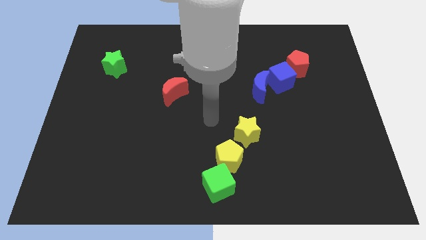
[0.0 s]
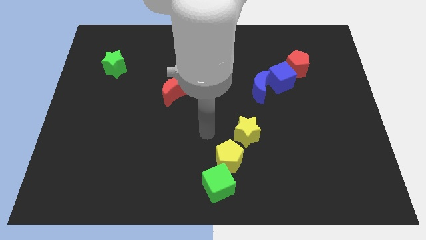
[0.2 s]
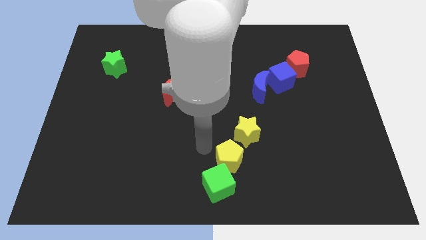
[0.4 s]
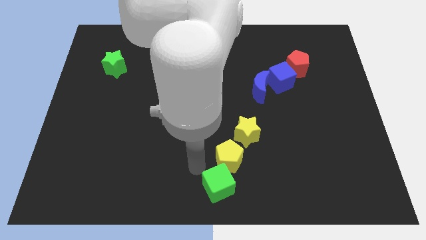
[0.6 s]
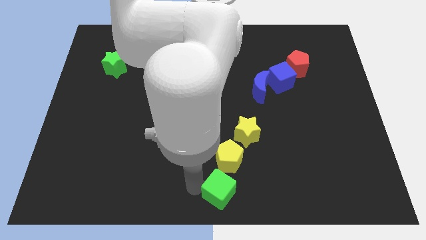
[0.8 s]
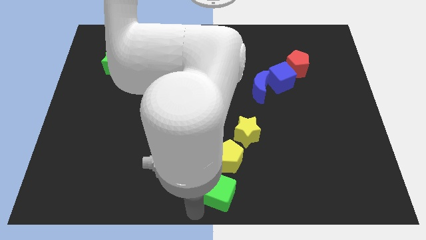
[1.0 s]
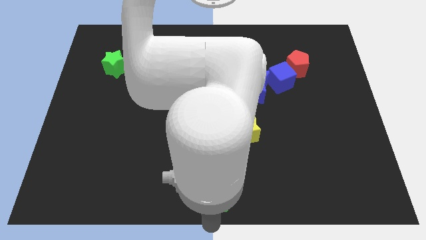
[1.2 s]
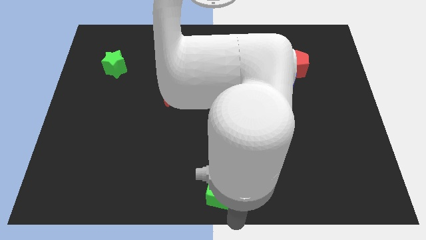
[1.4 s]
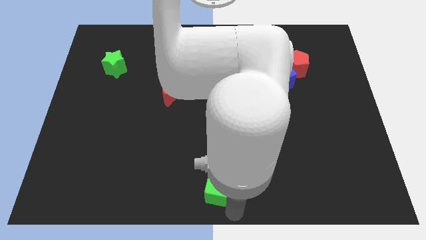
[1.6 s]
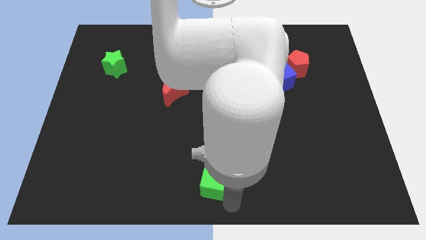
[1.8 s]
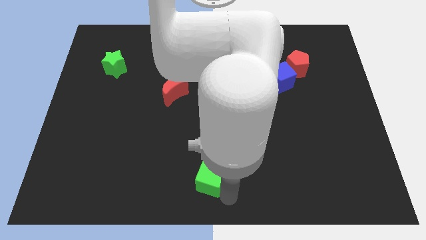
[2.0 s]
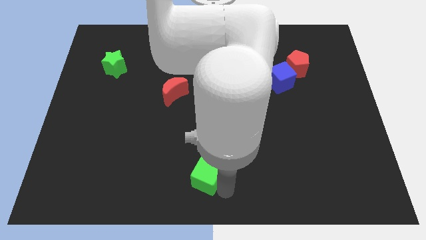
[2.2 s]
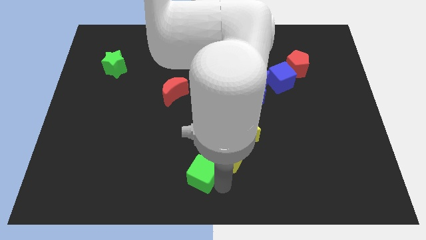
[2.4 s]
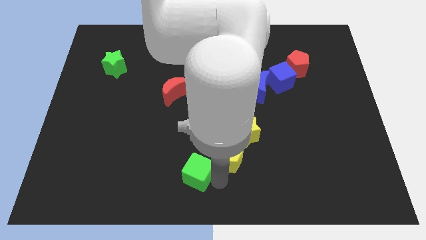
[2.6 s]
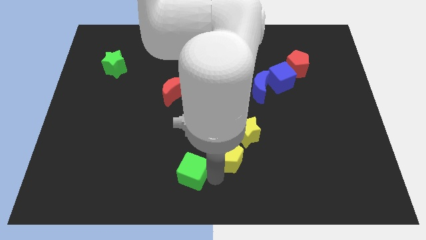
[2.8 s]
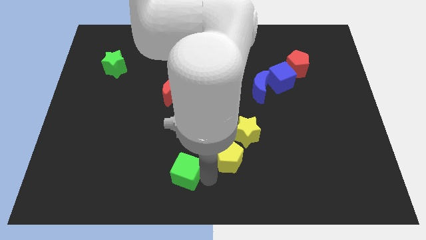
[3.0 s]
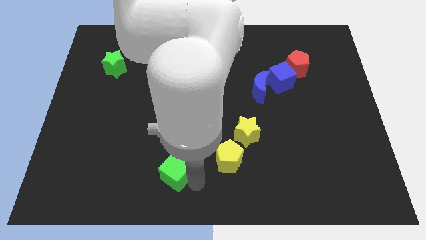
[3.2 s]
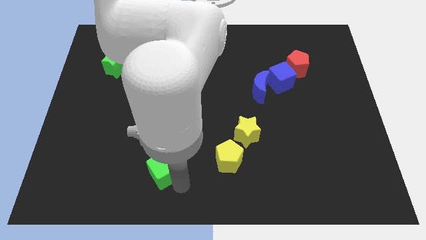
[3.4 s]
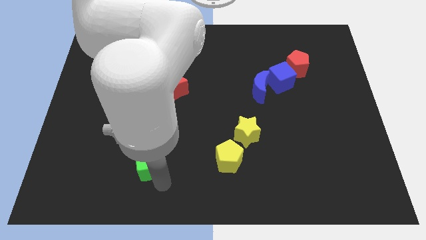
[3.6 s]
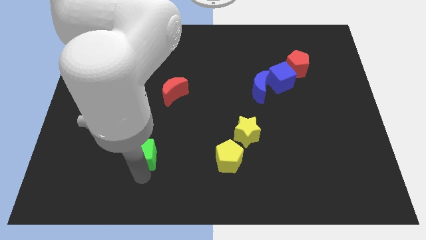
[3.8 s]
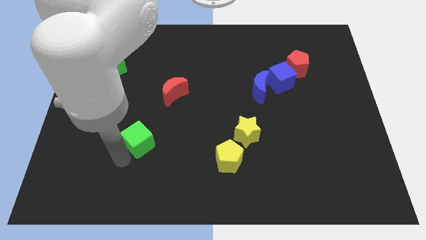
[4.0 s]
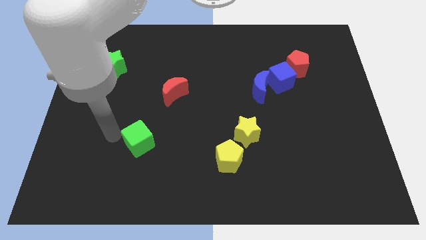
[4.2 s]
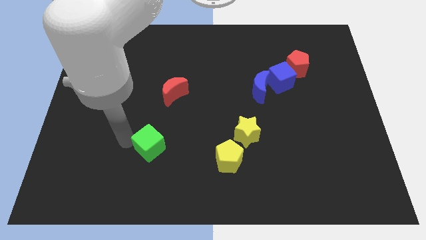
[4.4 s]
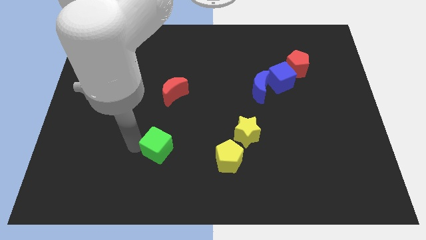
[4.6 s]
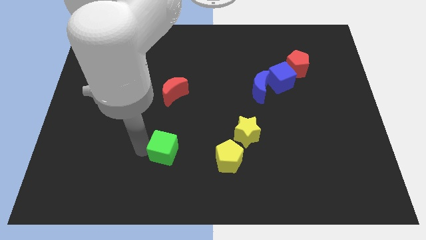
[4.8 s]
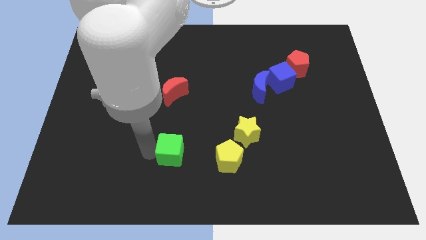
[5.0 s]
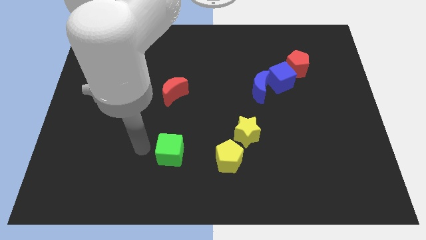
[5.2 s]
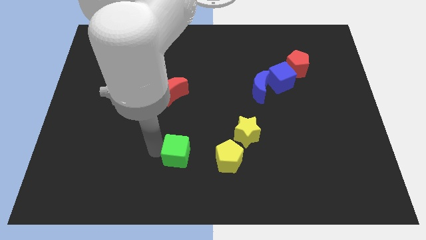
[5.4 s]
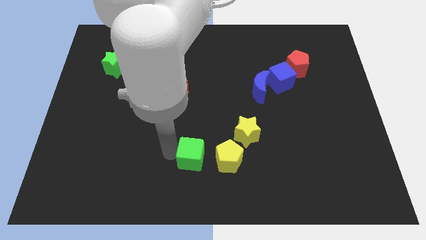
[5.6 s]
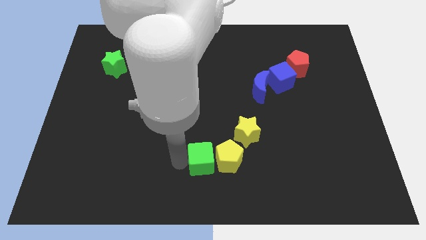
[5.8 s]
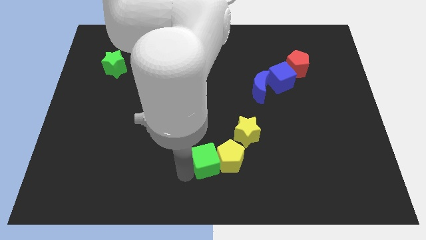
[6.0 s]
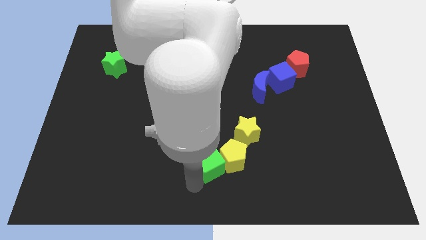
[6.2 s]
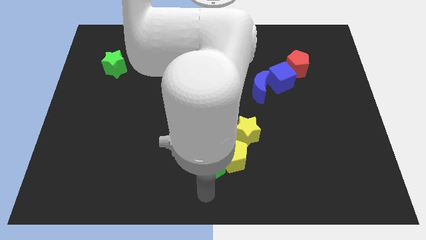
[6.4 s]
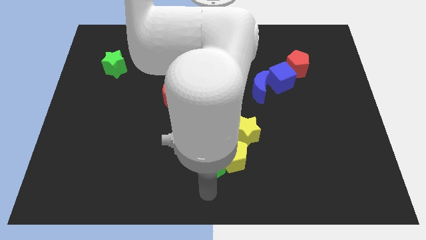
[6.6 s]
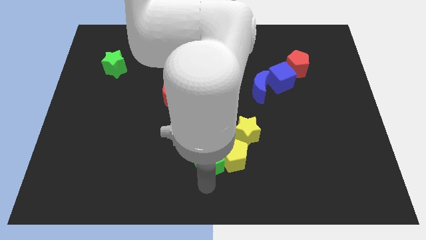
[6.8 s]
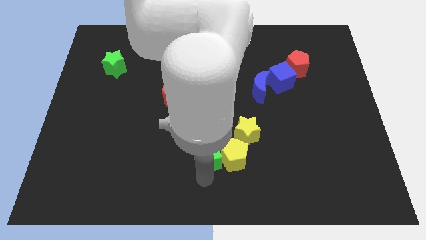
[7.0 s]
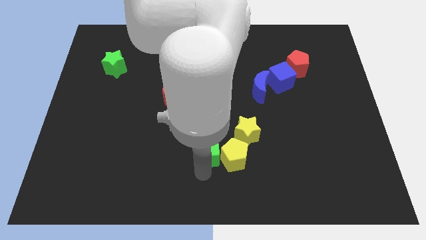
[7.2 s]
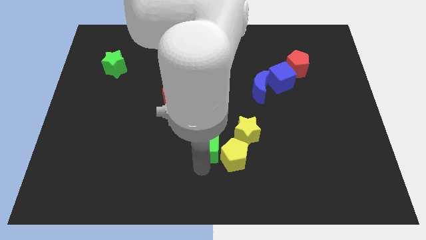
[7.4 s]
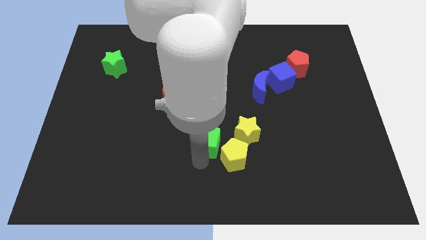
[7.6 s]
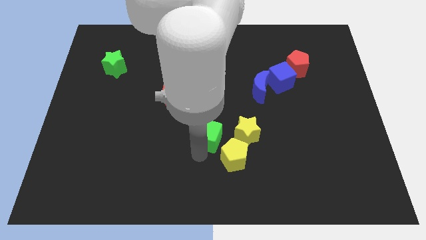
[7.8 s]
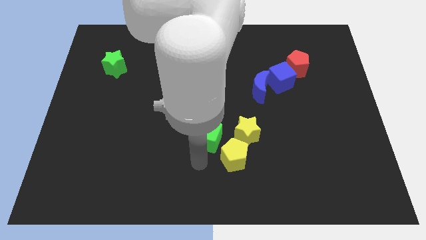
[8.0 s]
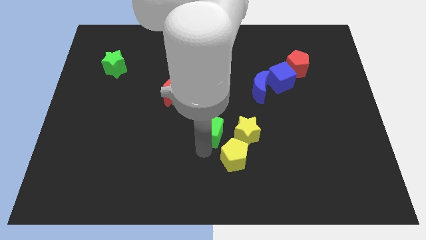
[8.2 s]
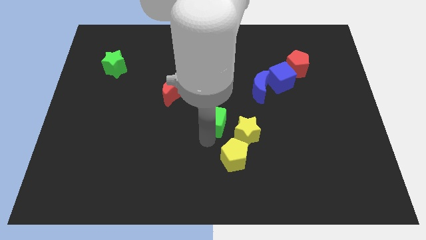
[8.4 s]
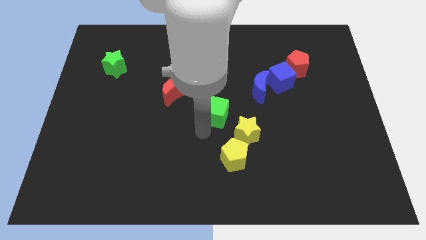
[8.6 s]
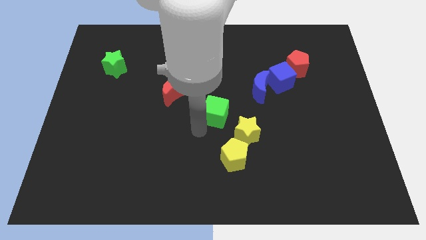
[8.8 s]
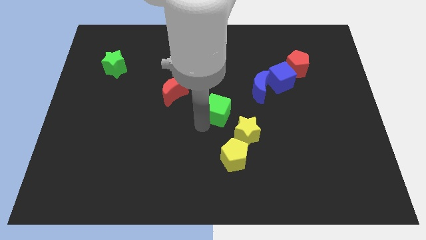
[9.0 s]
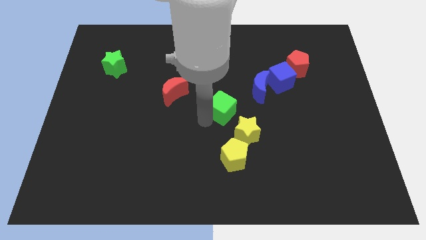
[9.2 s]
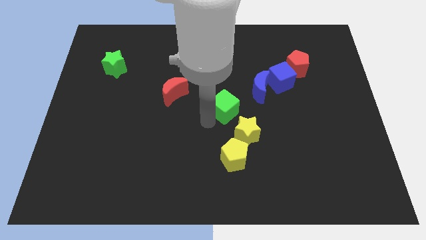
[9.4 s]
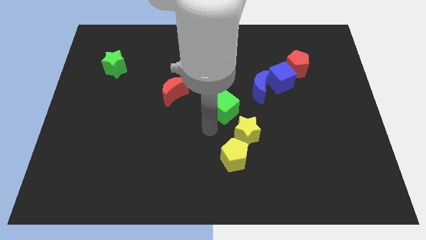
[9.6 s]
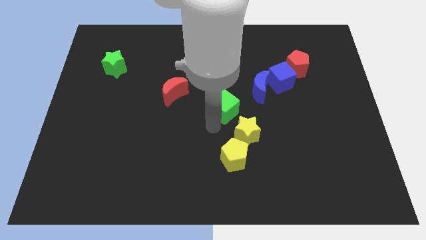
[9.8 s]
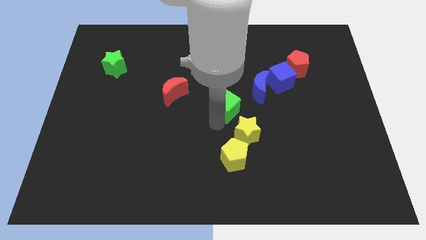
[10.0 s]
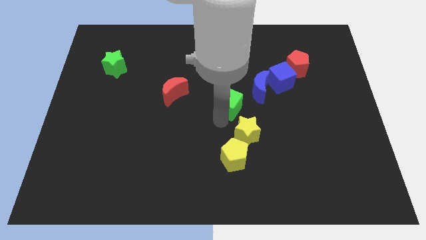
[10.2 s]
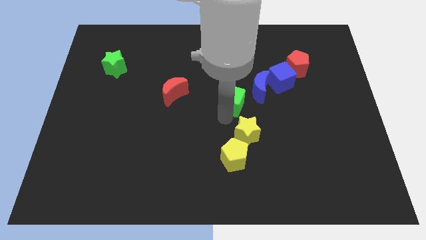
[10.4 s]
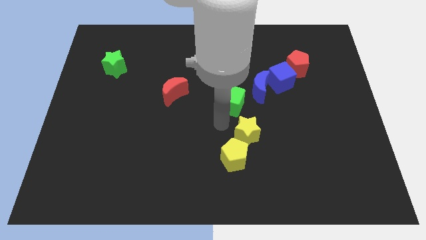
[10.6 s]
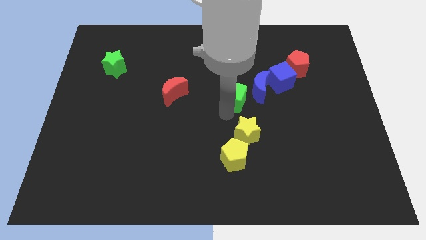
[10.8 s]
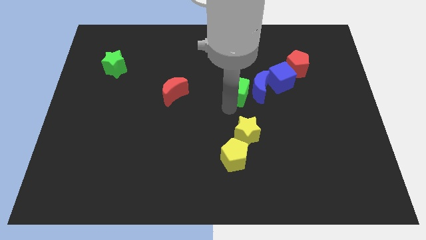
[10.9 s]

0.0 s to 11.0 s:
push the green cube to the top left of the blue moon

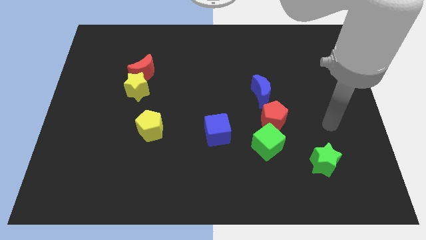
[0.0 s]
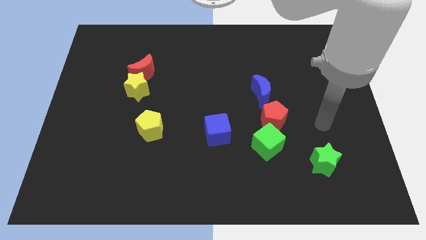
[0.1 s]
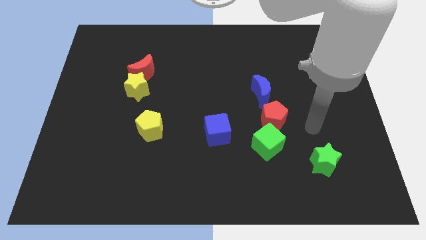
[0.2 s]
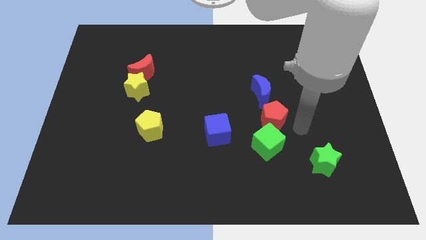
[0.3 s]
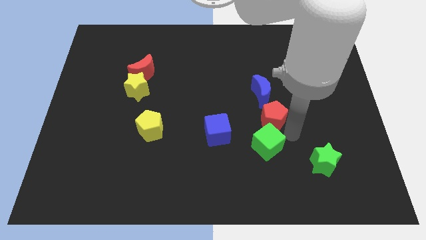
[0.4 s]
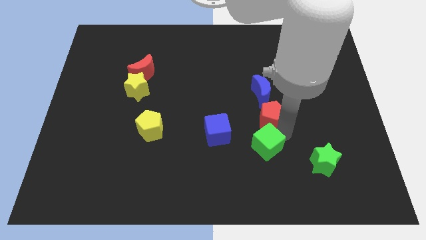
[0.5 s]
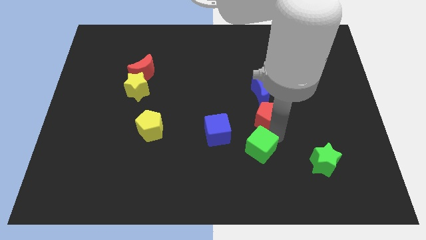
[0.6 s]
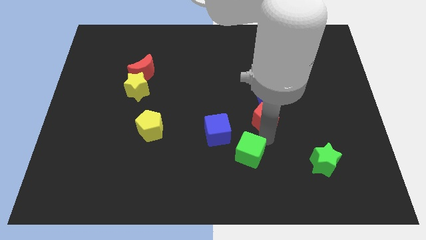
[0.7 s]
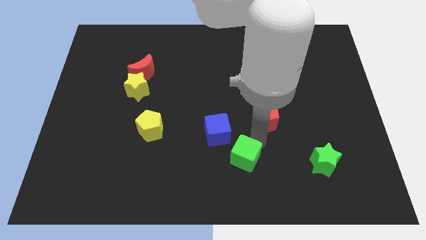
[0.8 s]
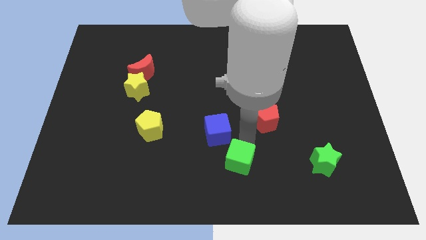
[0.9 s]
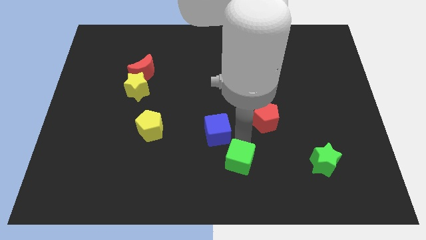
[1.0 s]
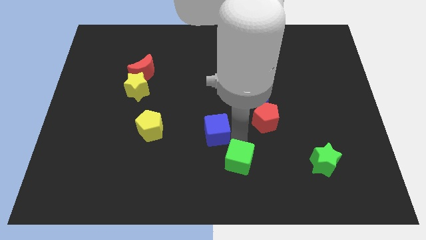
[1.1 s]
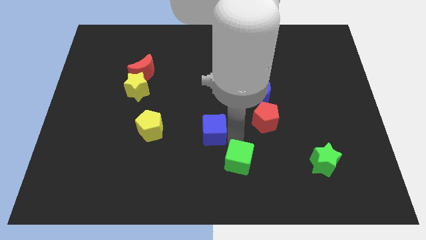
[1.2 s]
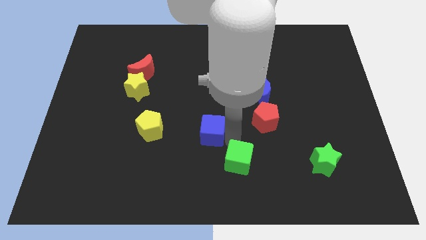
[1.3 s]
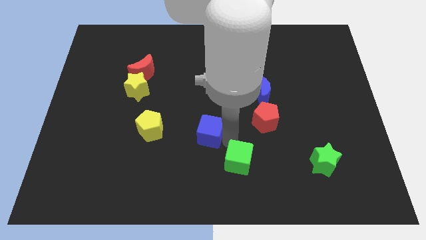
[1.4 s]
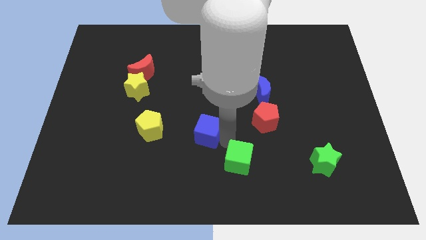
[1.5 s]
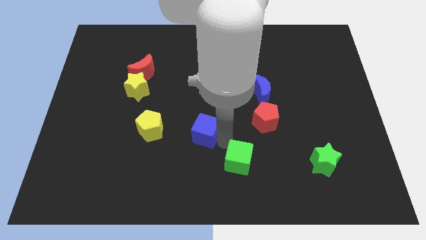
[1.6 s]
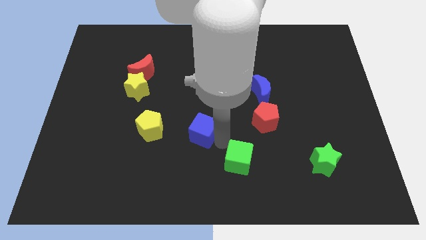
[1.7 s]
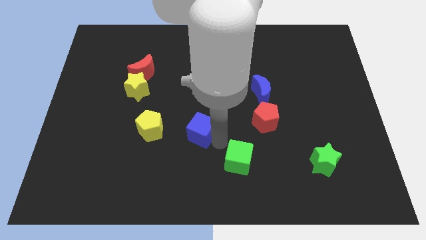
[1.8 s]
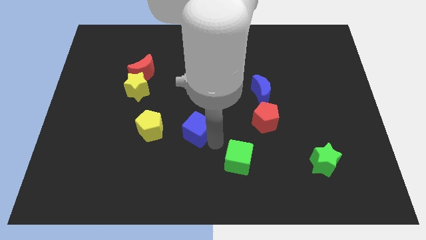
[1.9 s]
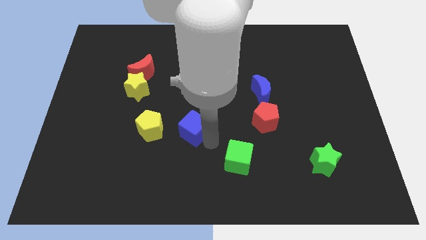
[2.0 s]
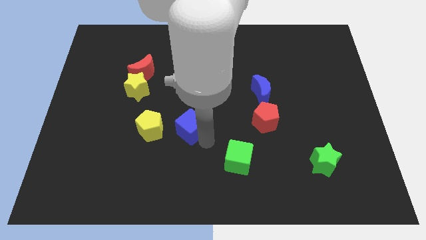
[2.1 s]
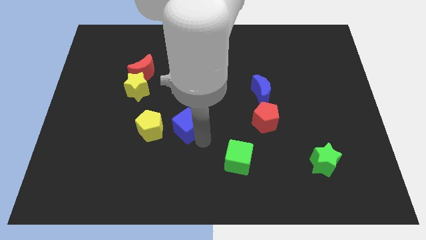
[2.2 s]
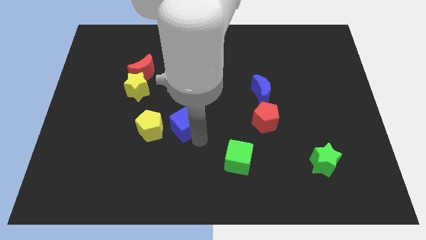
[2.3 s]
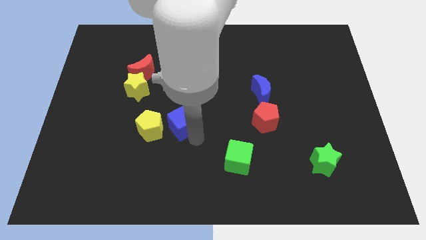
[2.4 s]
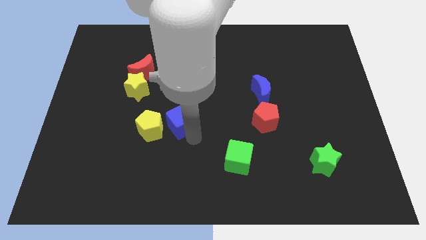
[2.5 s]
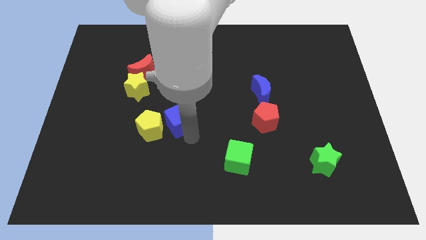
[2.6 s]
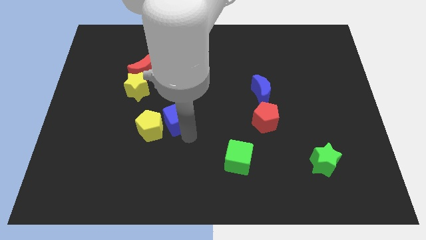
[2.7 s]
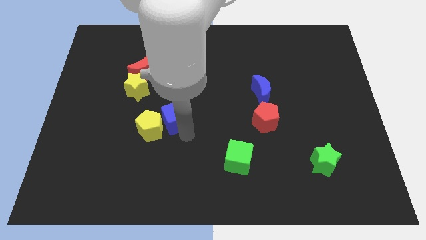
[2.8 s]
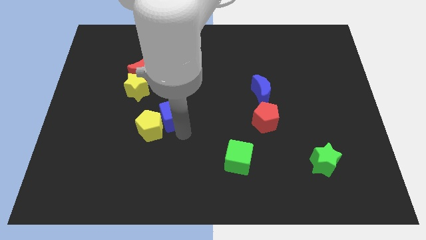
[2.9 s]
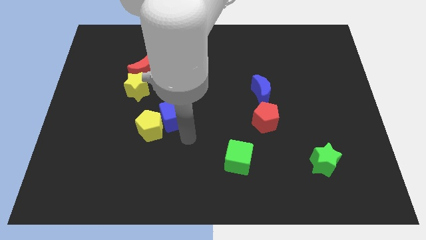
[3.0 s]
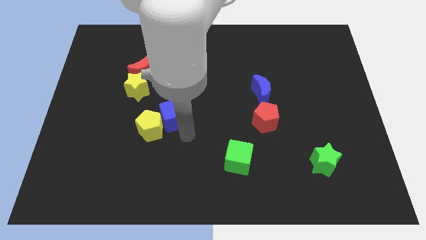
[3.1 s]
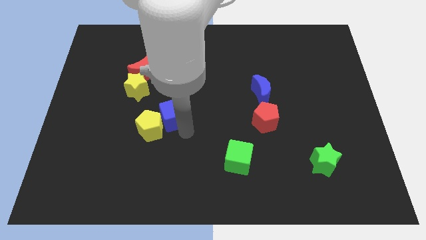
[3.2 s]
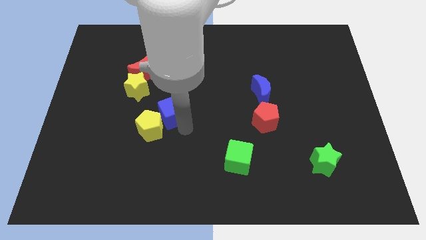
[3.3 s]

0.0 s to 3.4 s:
put the blue cube above the yellow pentagon
